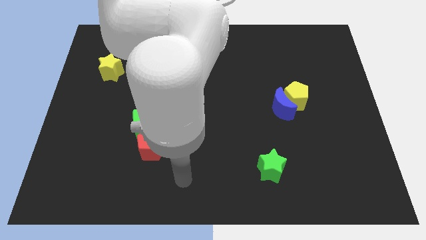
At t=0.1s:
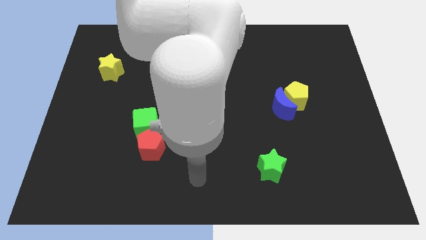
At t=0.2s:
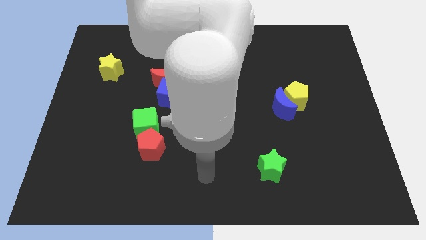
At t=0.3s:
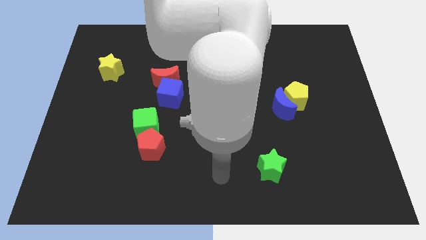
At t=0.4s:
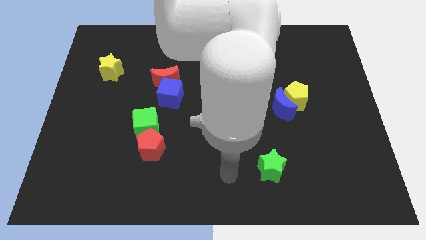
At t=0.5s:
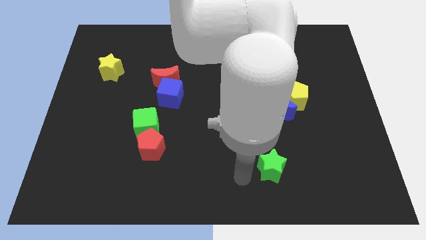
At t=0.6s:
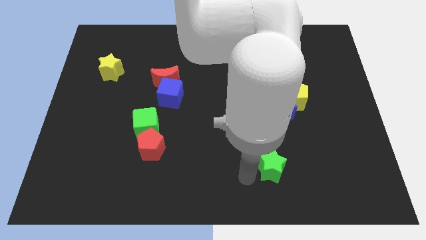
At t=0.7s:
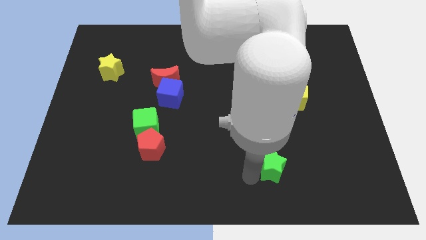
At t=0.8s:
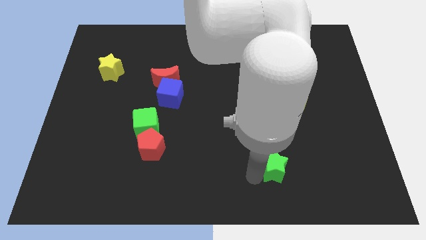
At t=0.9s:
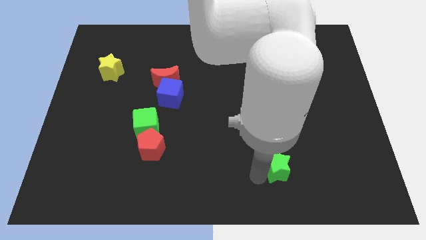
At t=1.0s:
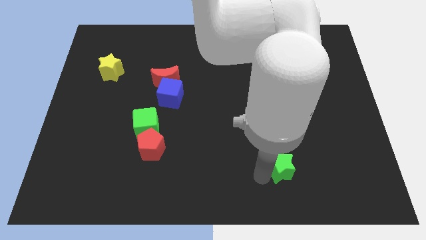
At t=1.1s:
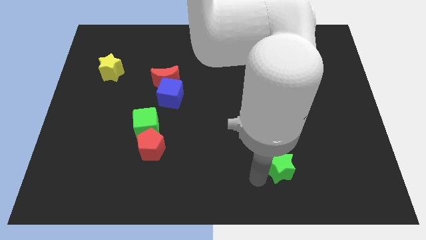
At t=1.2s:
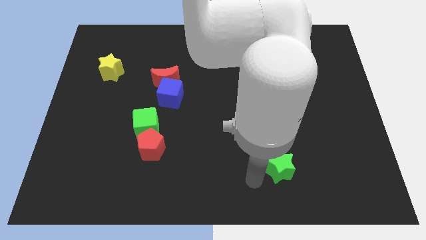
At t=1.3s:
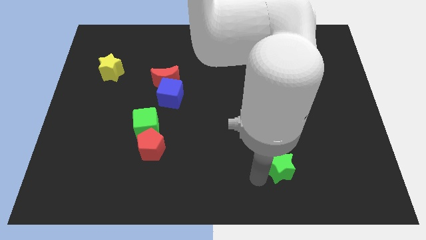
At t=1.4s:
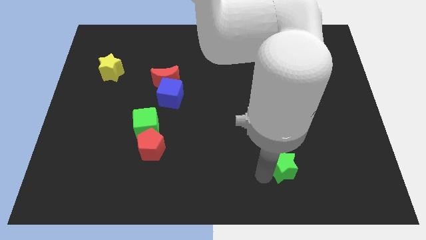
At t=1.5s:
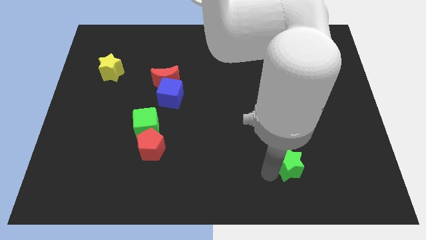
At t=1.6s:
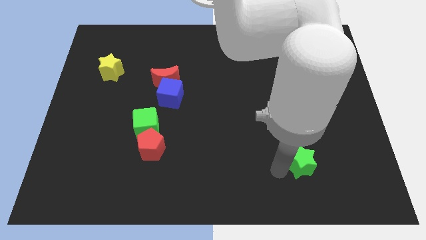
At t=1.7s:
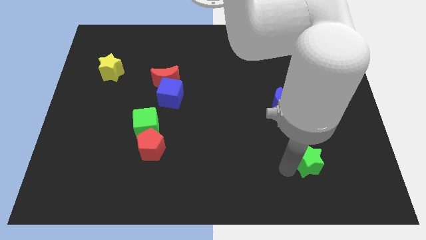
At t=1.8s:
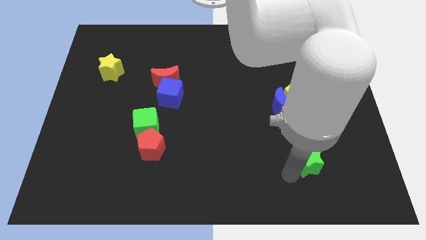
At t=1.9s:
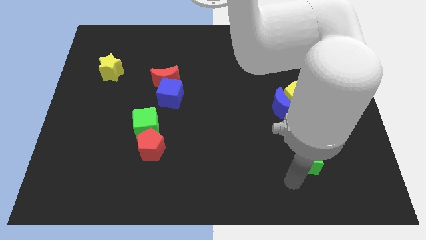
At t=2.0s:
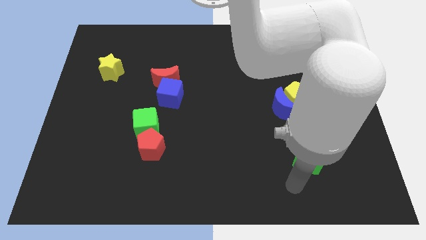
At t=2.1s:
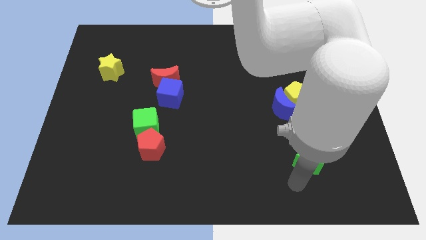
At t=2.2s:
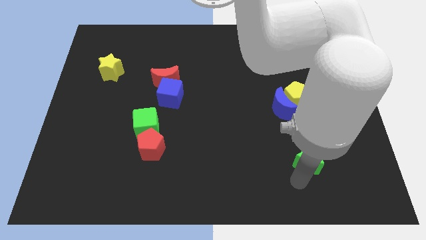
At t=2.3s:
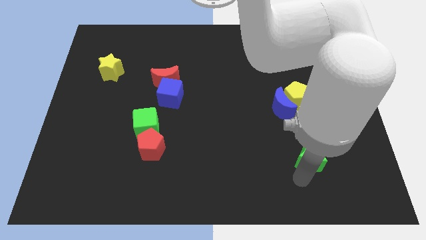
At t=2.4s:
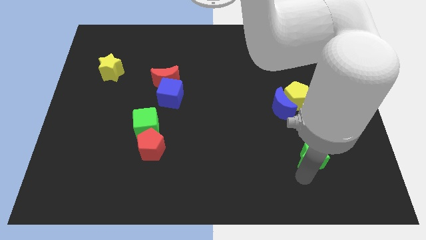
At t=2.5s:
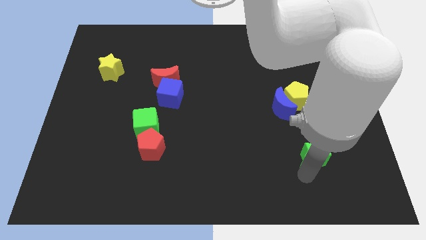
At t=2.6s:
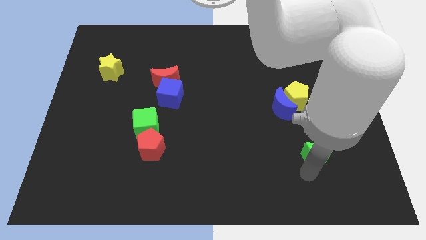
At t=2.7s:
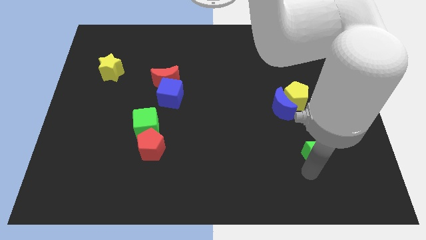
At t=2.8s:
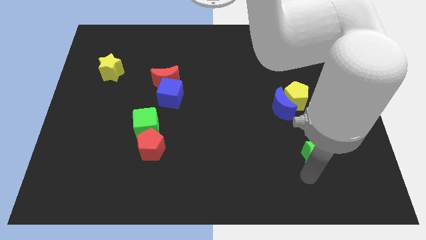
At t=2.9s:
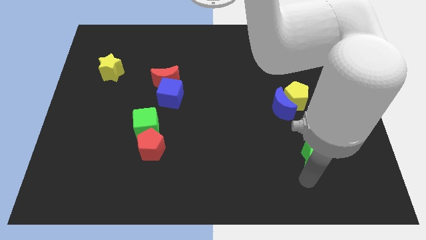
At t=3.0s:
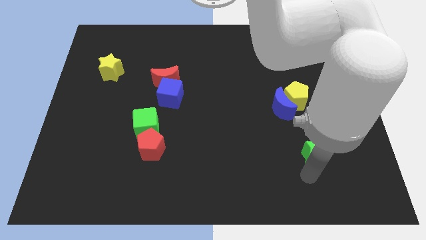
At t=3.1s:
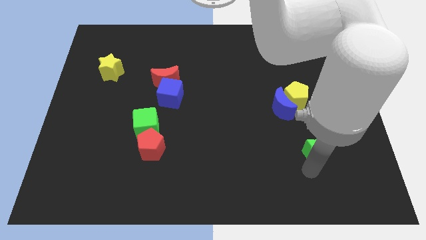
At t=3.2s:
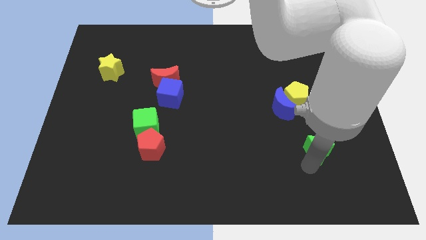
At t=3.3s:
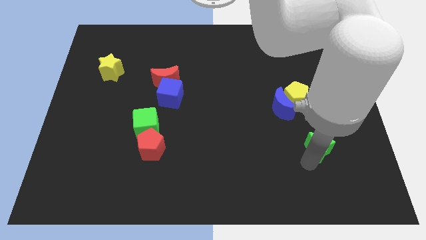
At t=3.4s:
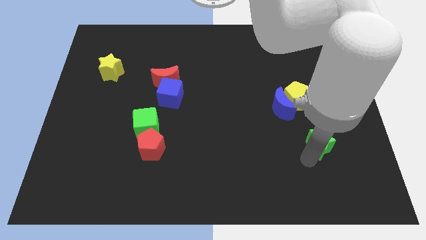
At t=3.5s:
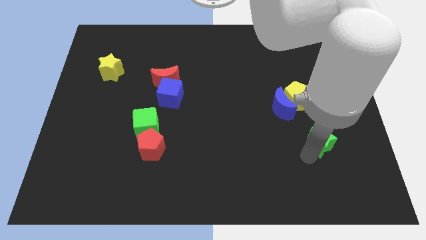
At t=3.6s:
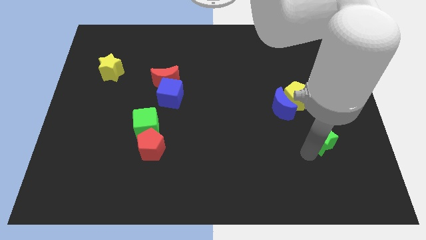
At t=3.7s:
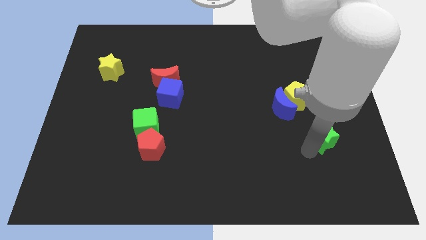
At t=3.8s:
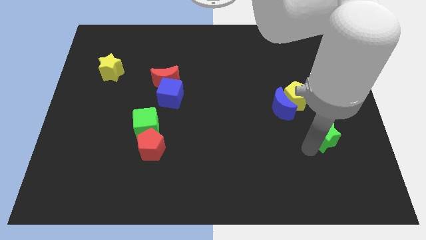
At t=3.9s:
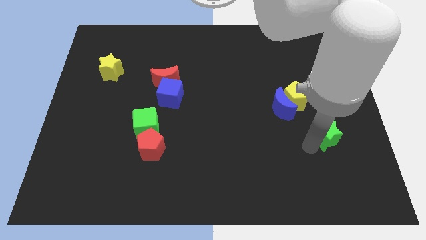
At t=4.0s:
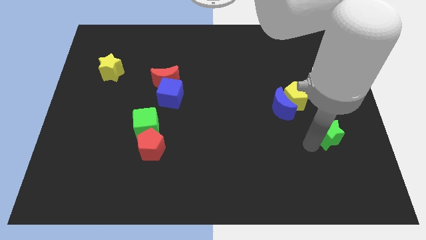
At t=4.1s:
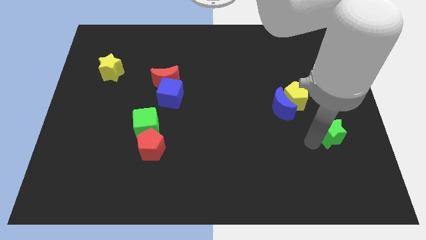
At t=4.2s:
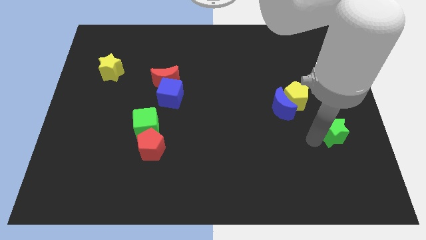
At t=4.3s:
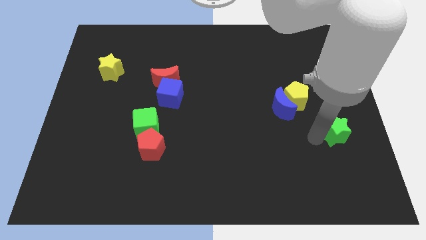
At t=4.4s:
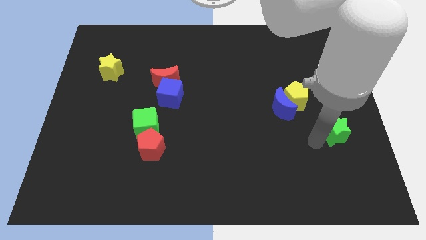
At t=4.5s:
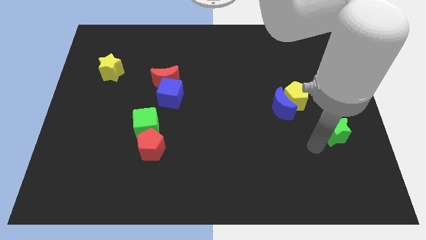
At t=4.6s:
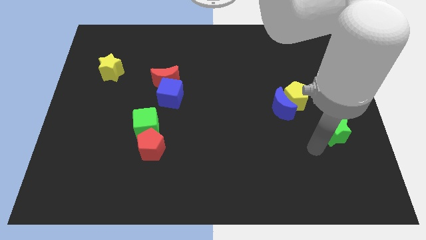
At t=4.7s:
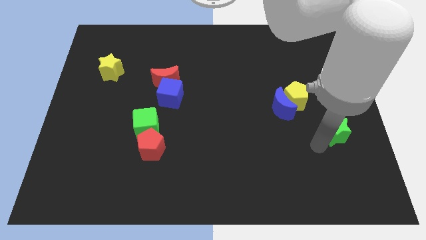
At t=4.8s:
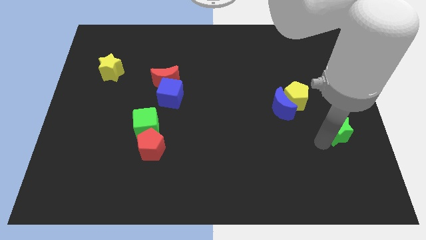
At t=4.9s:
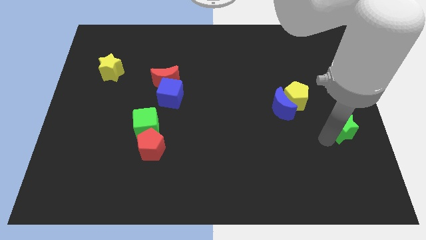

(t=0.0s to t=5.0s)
slide the green star to the center right

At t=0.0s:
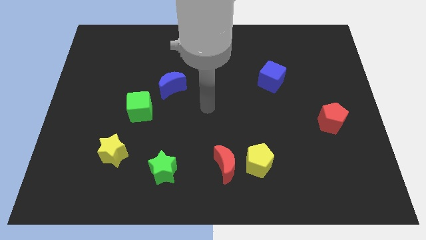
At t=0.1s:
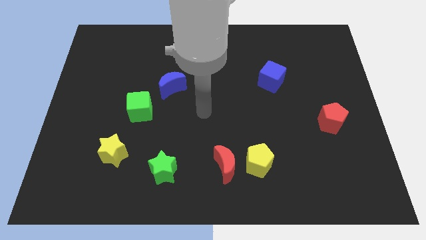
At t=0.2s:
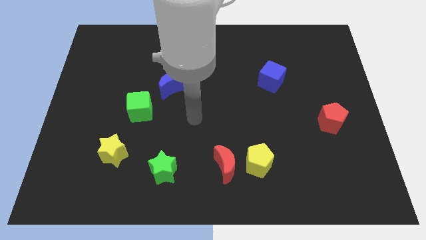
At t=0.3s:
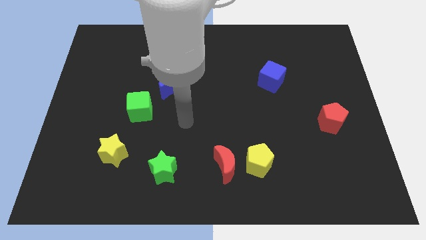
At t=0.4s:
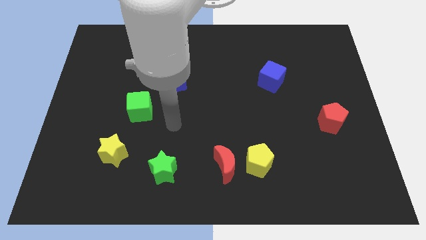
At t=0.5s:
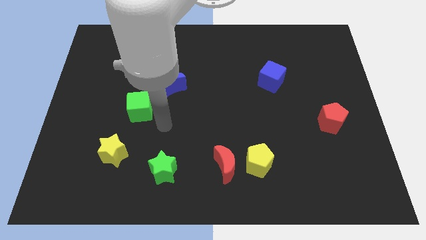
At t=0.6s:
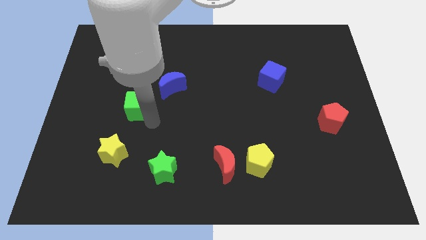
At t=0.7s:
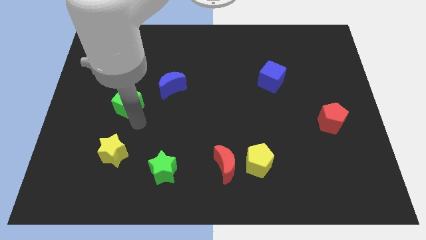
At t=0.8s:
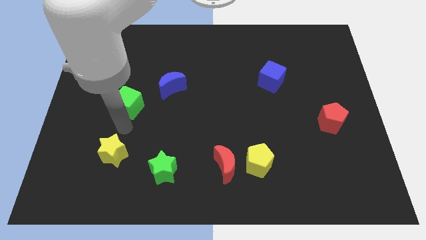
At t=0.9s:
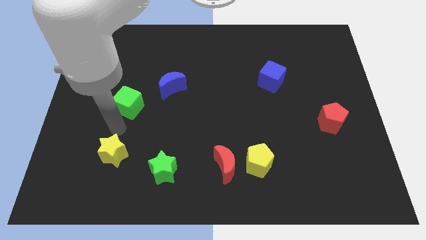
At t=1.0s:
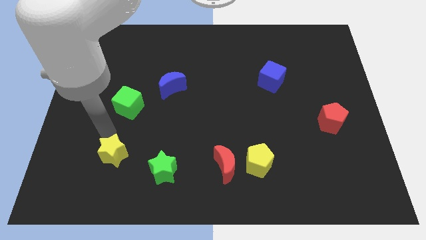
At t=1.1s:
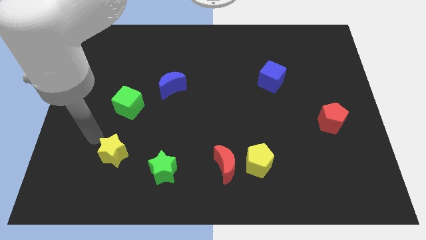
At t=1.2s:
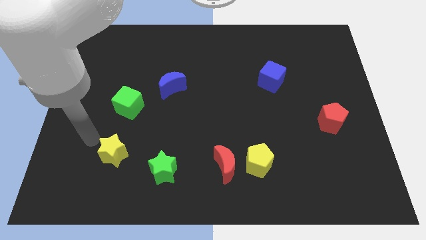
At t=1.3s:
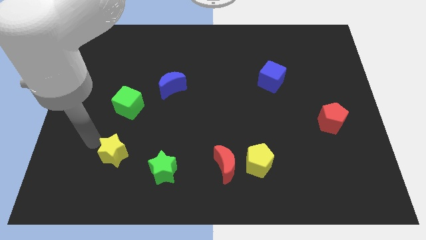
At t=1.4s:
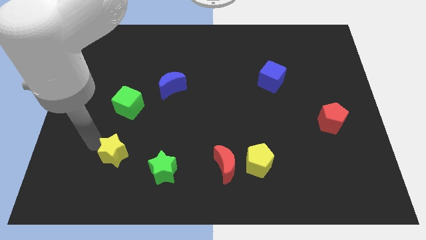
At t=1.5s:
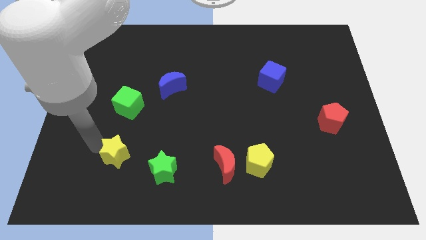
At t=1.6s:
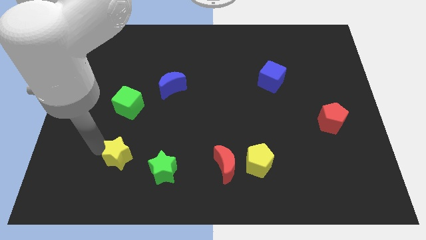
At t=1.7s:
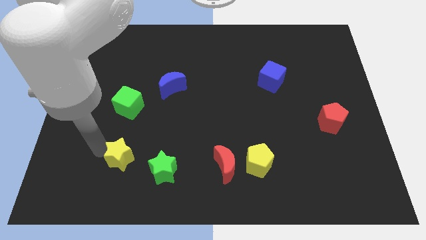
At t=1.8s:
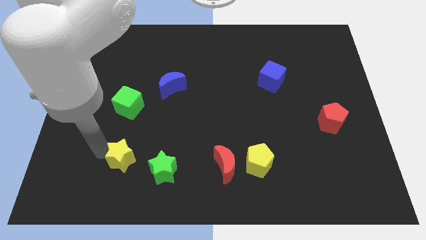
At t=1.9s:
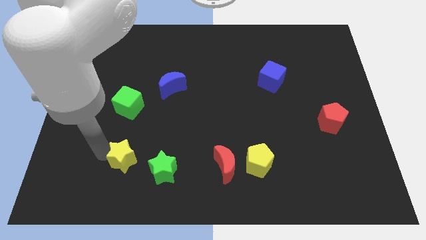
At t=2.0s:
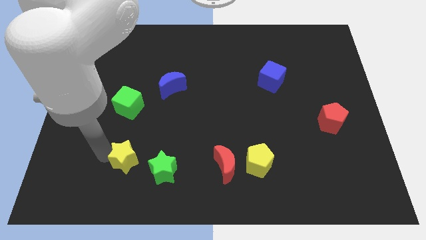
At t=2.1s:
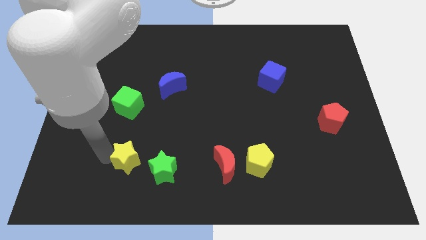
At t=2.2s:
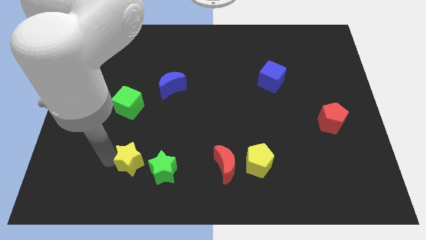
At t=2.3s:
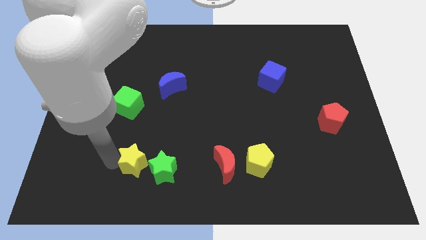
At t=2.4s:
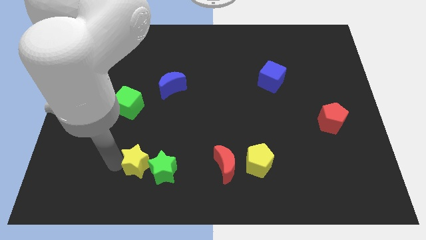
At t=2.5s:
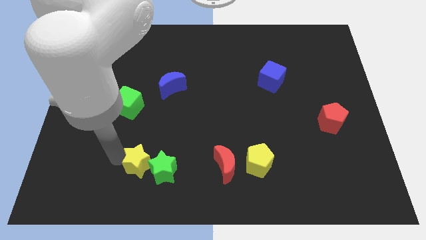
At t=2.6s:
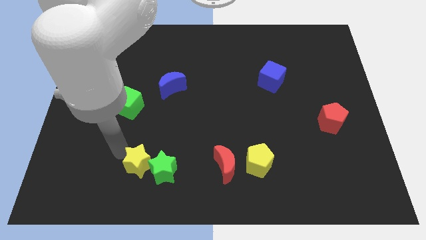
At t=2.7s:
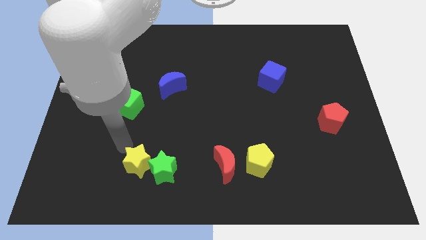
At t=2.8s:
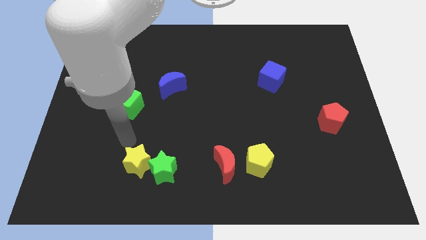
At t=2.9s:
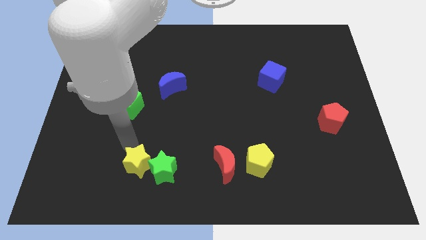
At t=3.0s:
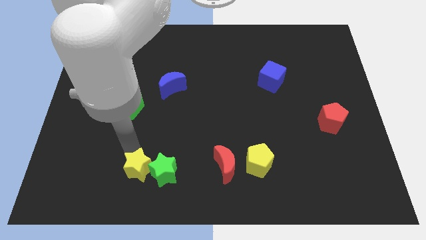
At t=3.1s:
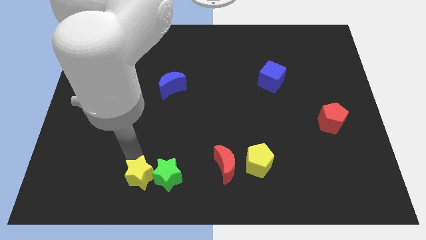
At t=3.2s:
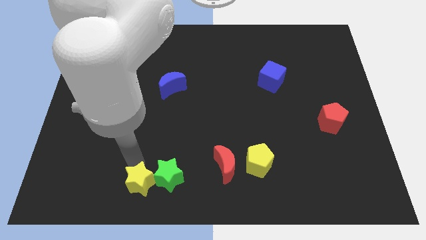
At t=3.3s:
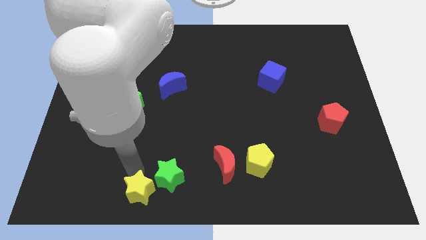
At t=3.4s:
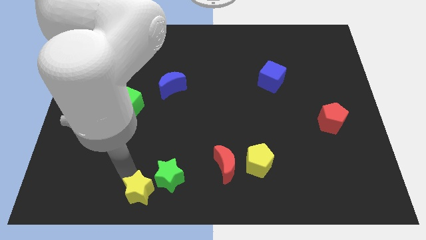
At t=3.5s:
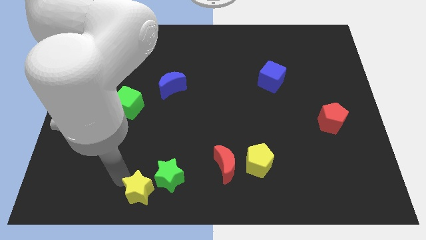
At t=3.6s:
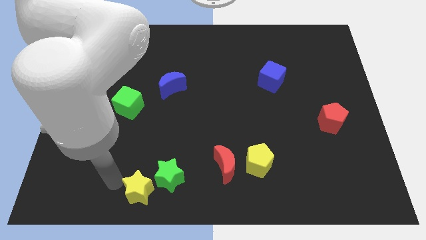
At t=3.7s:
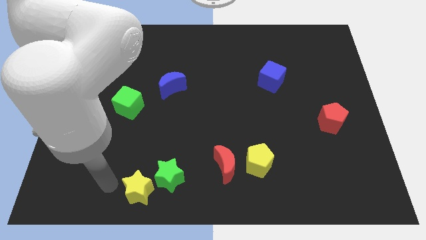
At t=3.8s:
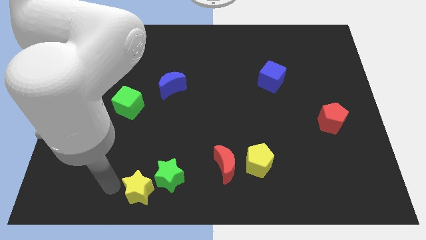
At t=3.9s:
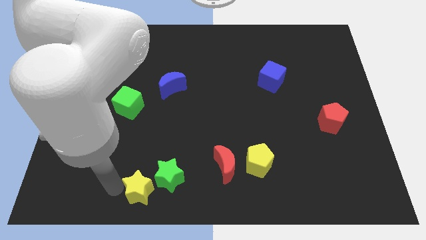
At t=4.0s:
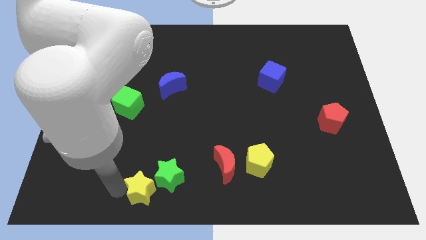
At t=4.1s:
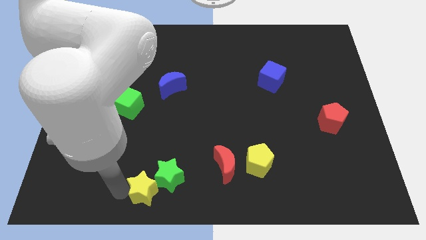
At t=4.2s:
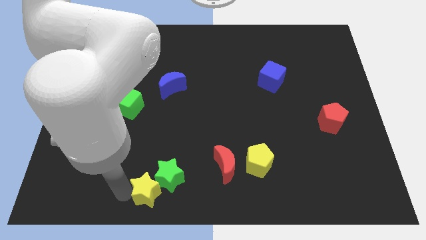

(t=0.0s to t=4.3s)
push the yellow star to the bottom
